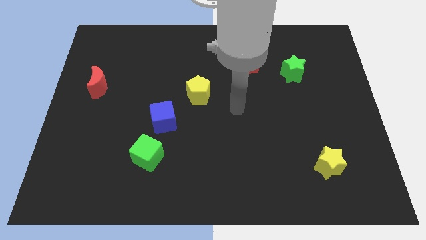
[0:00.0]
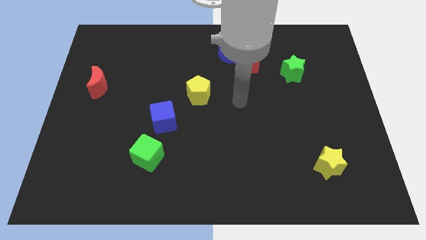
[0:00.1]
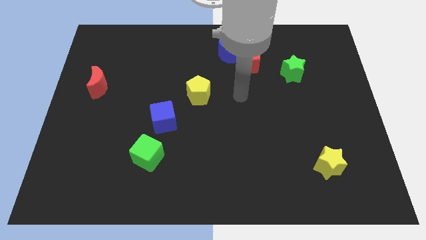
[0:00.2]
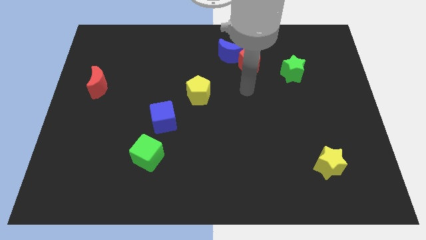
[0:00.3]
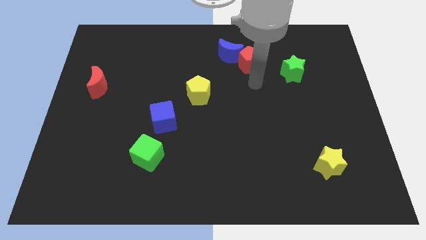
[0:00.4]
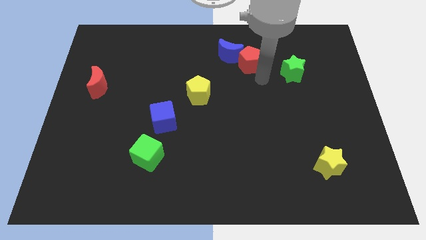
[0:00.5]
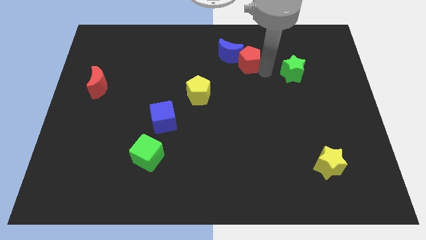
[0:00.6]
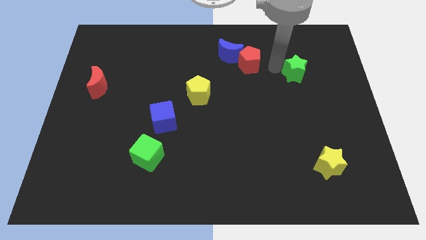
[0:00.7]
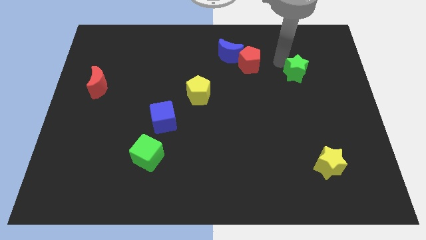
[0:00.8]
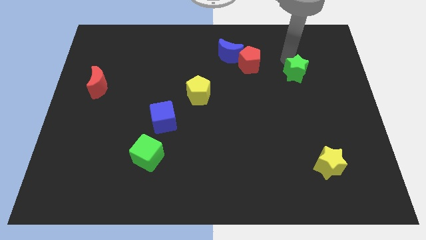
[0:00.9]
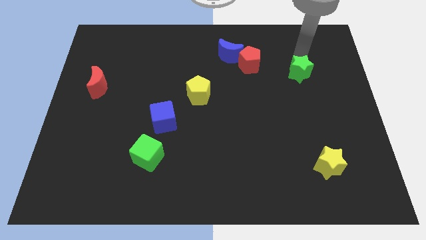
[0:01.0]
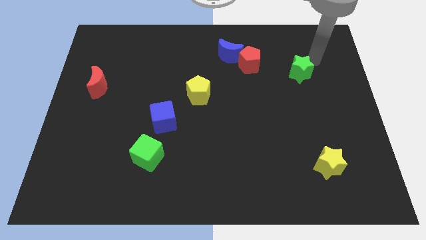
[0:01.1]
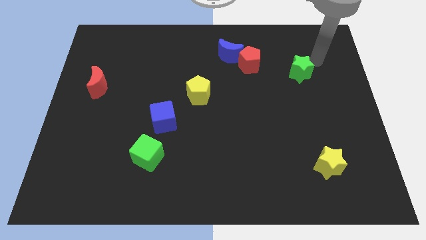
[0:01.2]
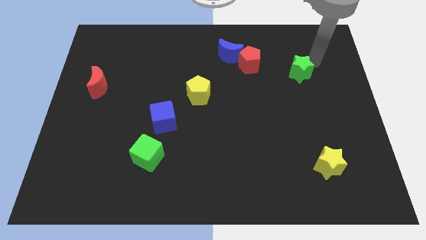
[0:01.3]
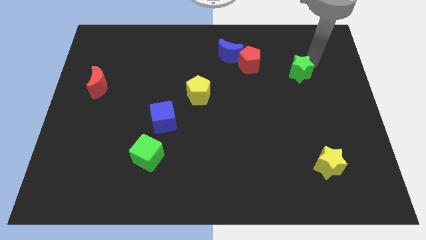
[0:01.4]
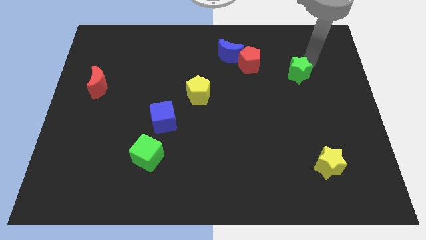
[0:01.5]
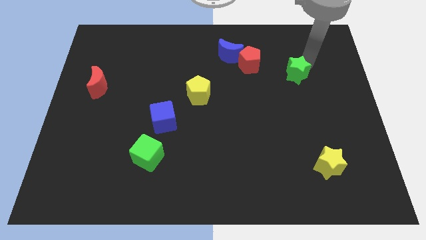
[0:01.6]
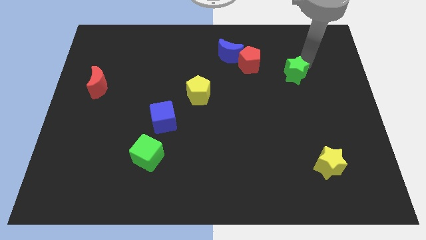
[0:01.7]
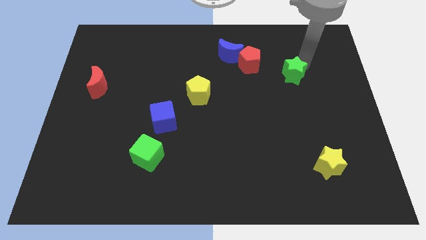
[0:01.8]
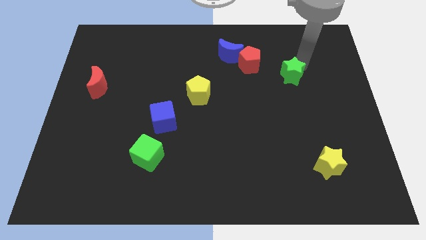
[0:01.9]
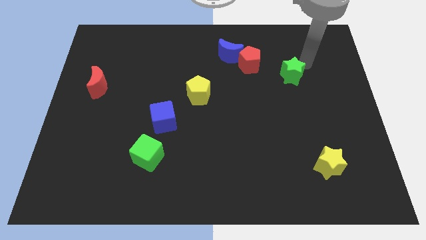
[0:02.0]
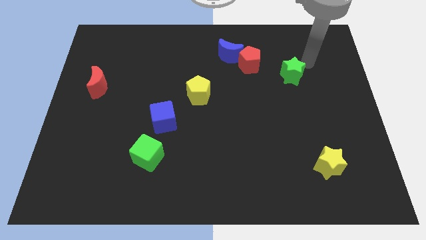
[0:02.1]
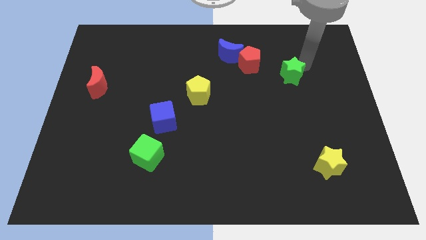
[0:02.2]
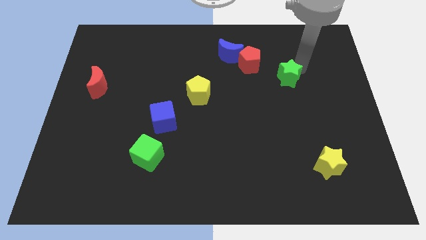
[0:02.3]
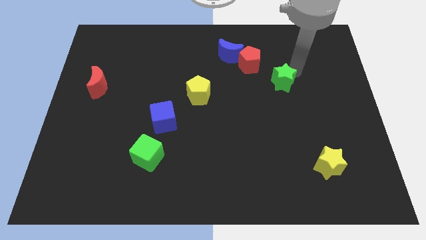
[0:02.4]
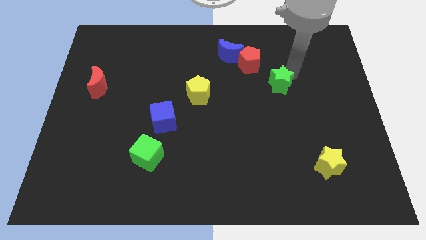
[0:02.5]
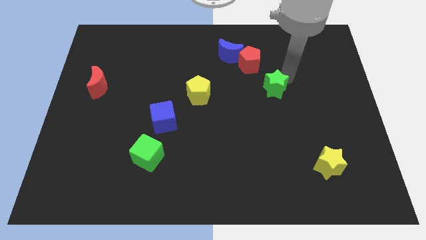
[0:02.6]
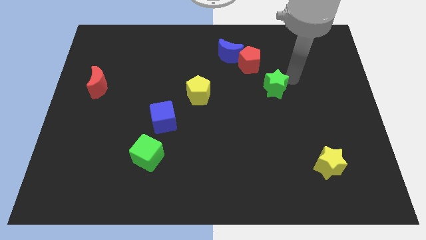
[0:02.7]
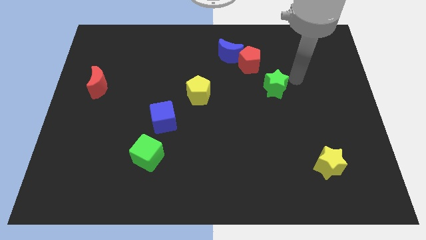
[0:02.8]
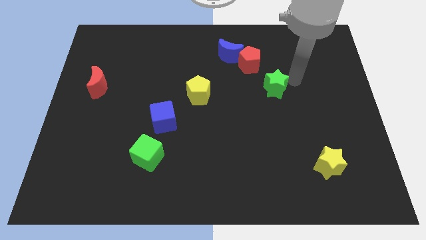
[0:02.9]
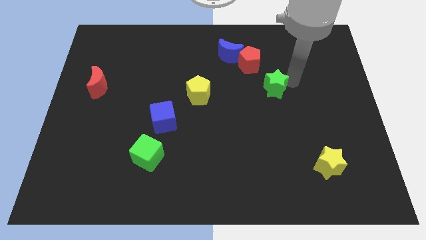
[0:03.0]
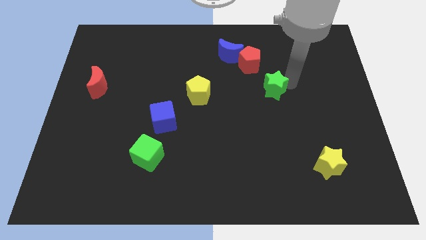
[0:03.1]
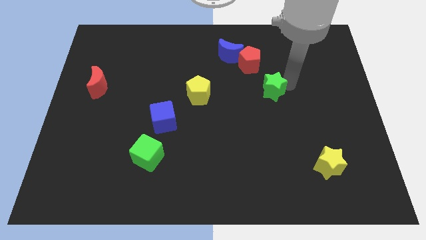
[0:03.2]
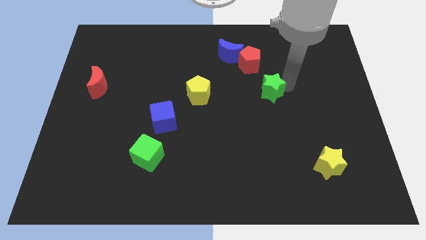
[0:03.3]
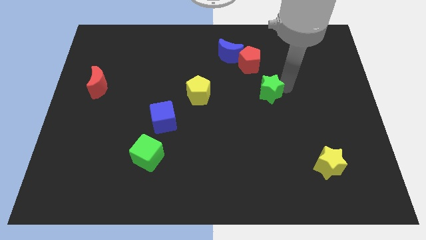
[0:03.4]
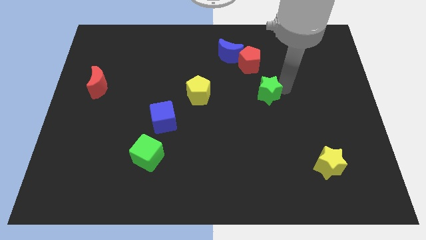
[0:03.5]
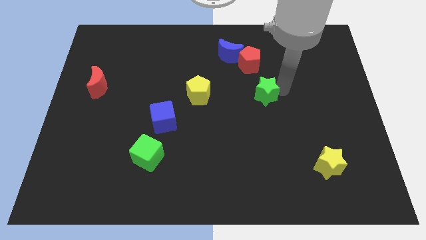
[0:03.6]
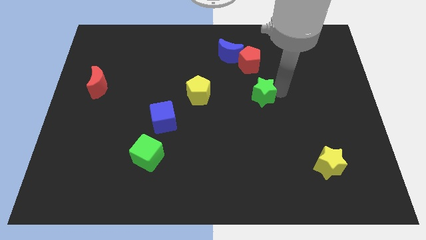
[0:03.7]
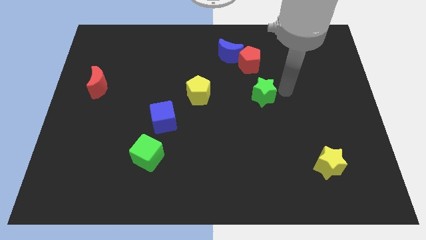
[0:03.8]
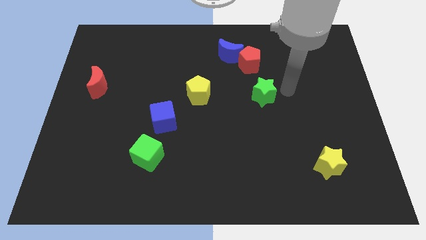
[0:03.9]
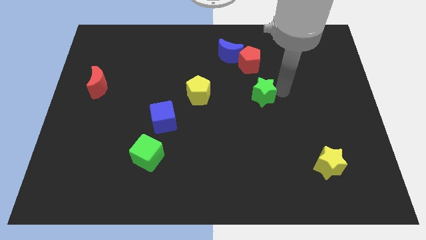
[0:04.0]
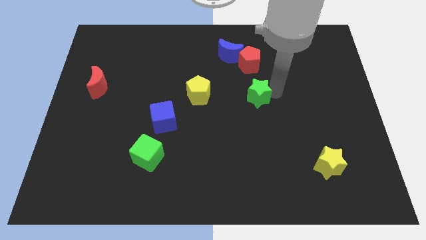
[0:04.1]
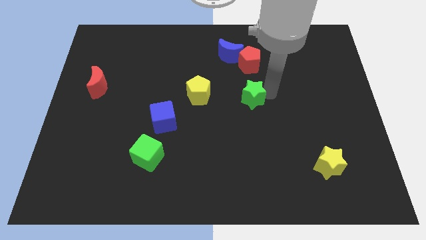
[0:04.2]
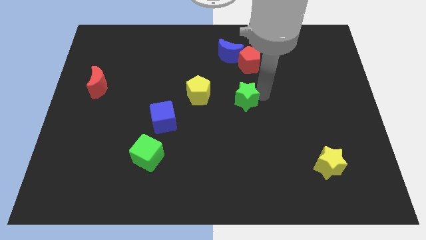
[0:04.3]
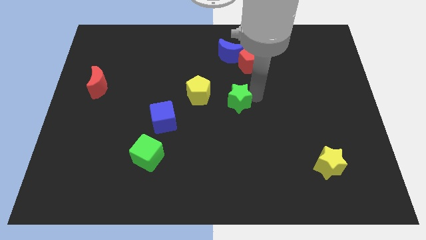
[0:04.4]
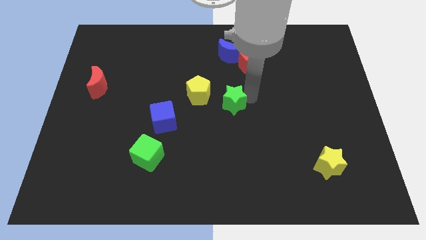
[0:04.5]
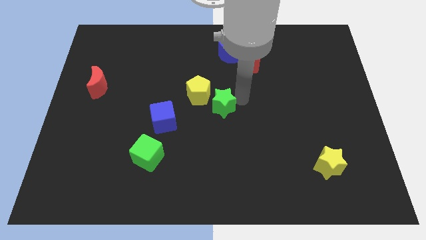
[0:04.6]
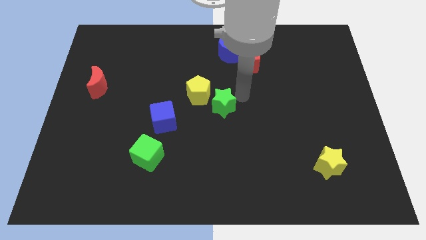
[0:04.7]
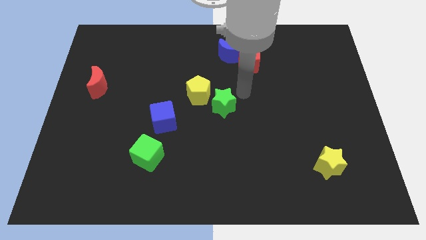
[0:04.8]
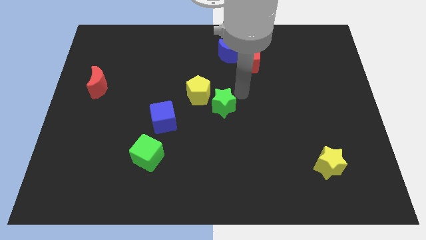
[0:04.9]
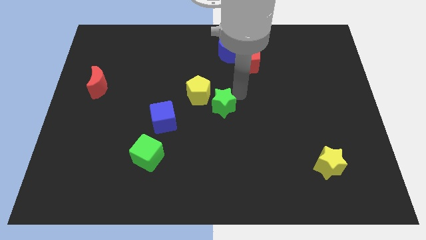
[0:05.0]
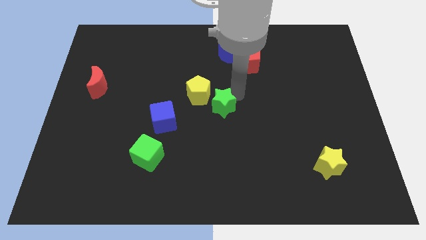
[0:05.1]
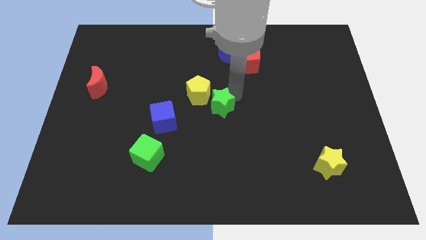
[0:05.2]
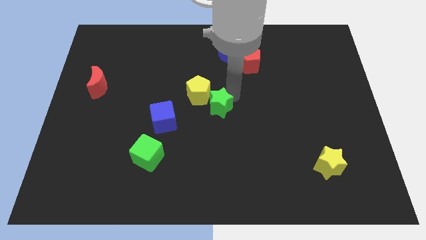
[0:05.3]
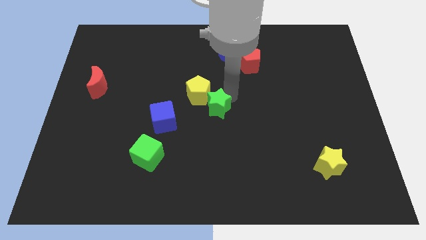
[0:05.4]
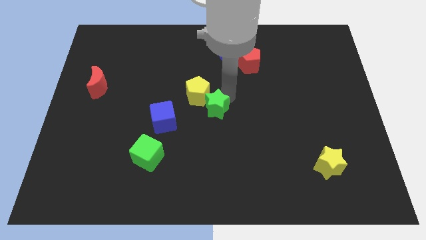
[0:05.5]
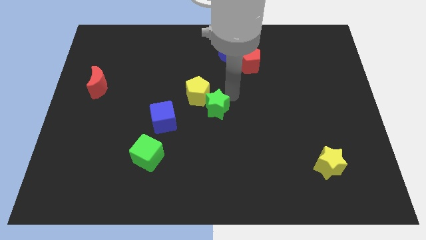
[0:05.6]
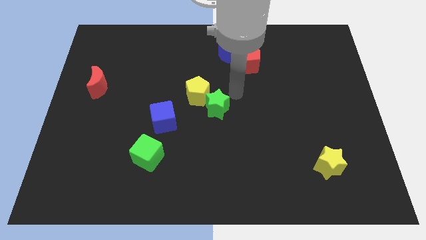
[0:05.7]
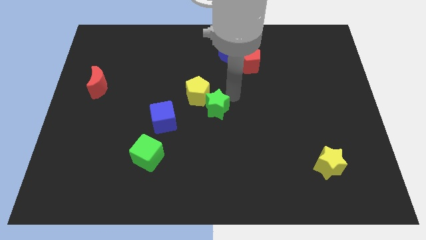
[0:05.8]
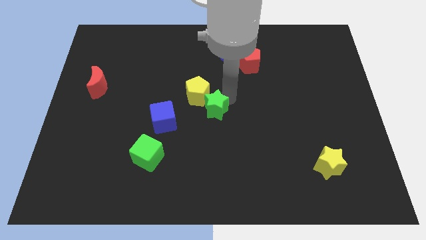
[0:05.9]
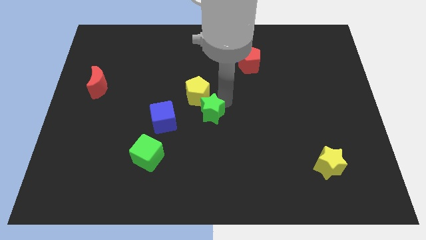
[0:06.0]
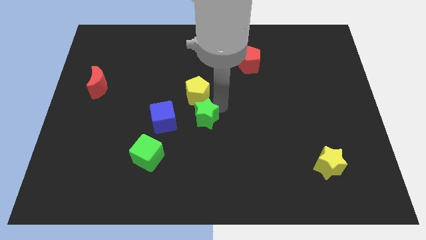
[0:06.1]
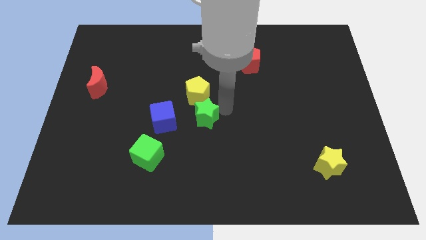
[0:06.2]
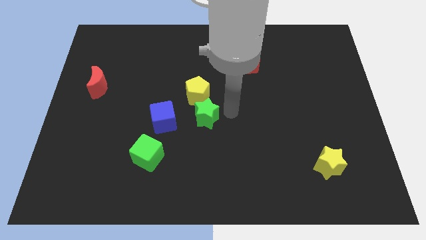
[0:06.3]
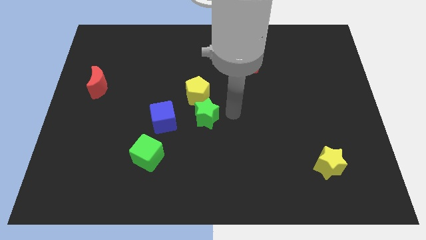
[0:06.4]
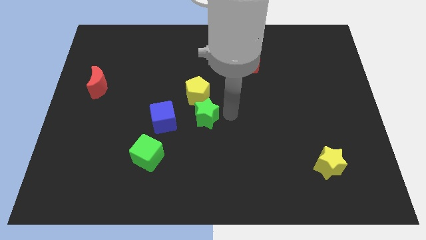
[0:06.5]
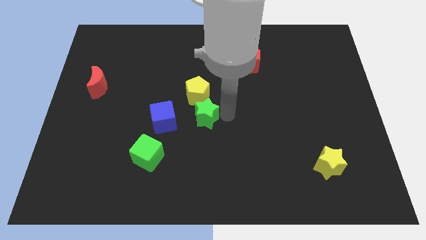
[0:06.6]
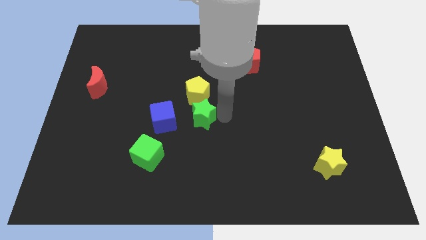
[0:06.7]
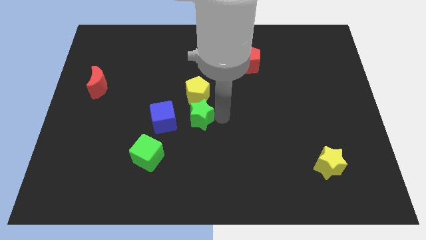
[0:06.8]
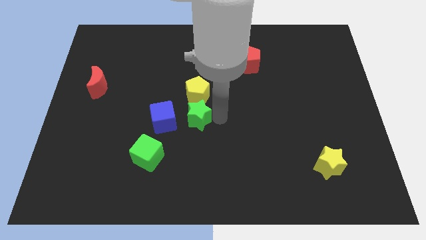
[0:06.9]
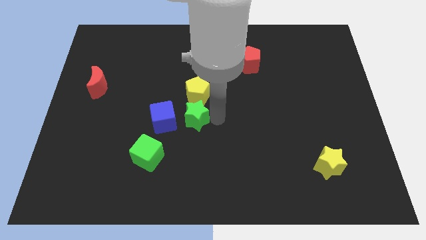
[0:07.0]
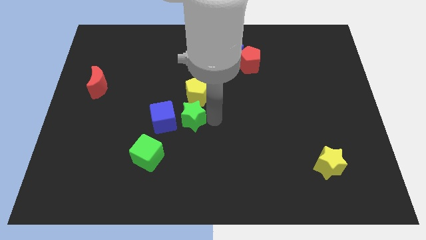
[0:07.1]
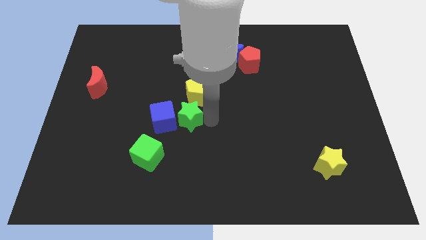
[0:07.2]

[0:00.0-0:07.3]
push the green star close to the blue cube
